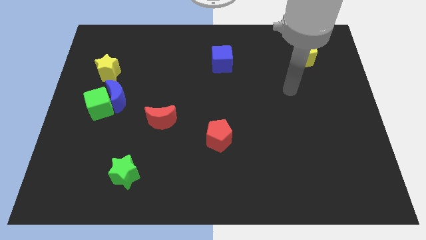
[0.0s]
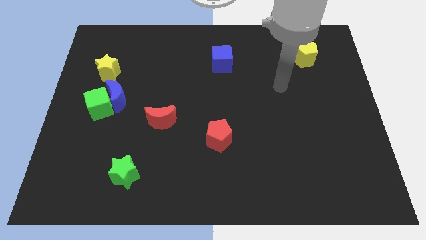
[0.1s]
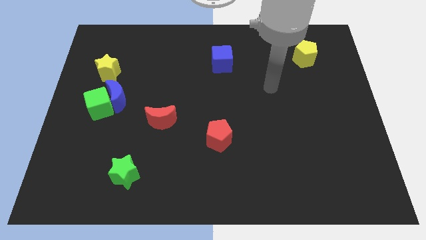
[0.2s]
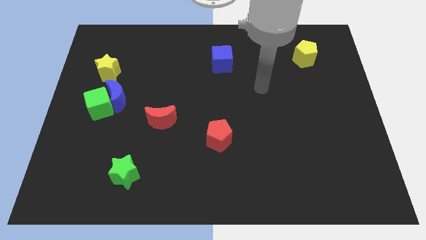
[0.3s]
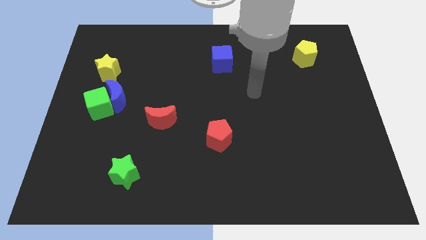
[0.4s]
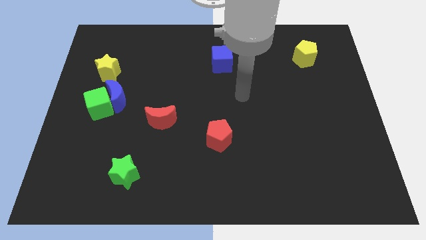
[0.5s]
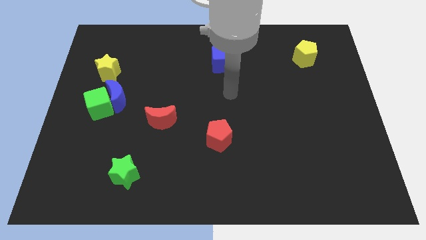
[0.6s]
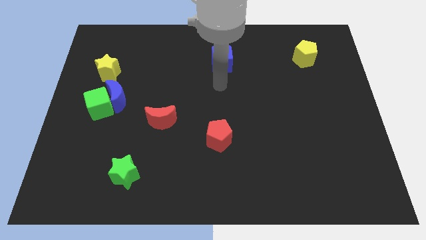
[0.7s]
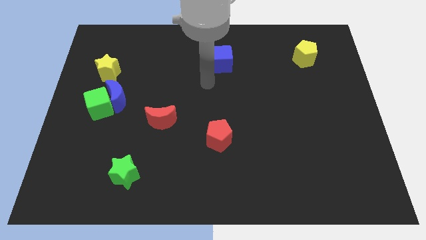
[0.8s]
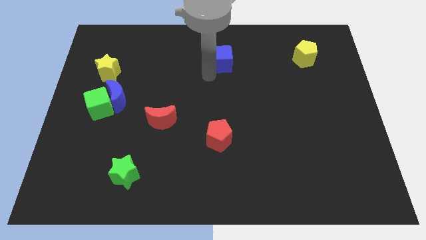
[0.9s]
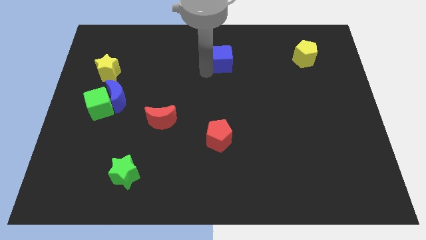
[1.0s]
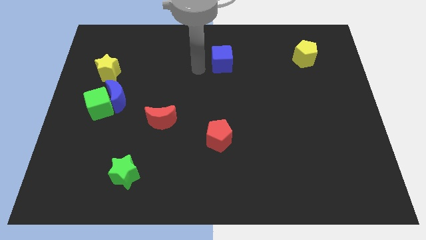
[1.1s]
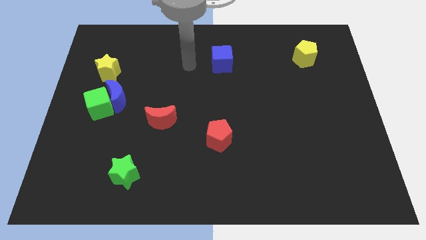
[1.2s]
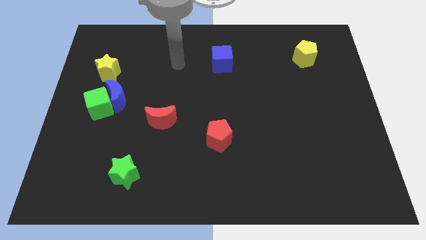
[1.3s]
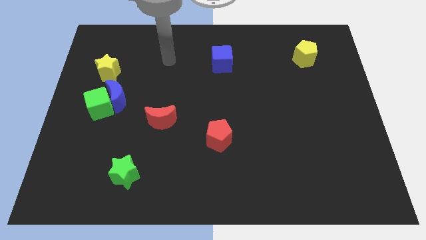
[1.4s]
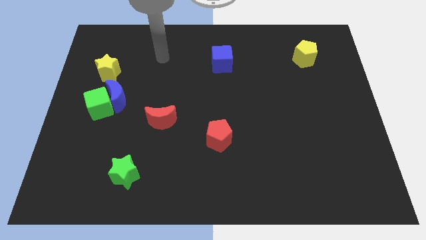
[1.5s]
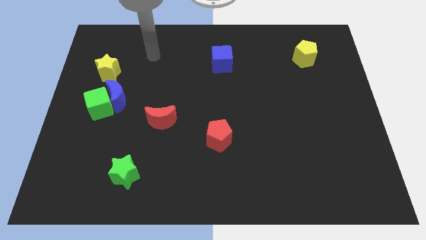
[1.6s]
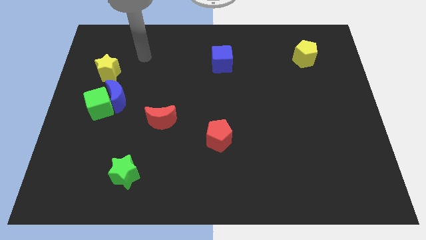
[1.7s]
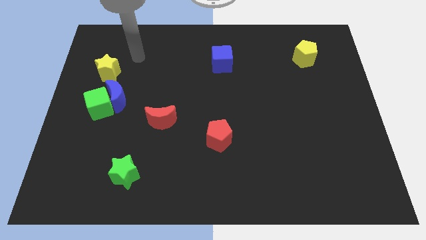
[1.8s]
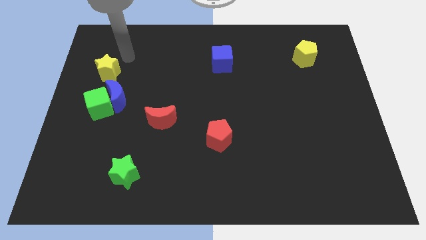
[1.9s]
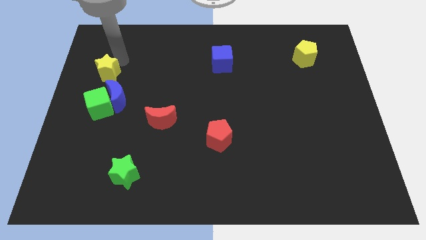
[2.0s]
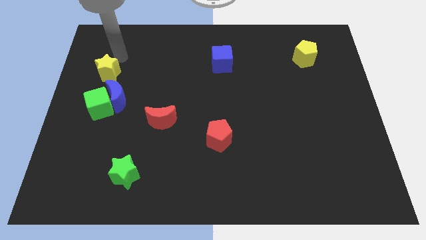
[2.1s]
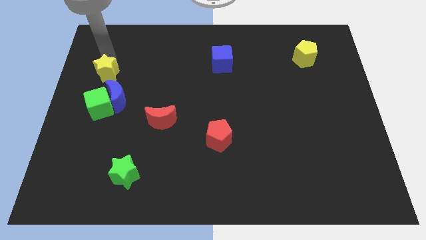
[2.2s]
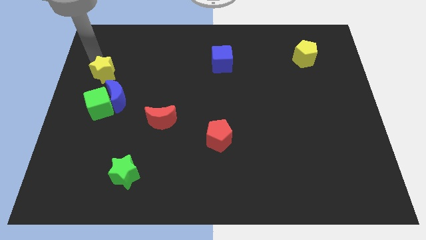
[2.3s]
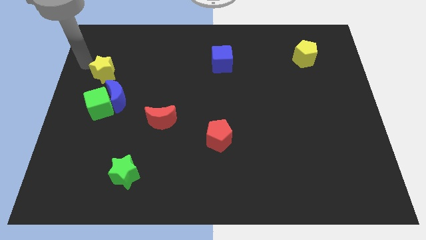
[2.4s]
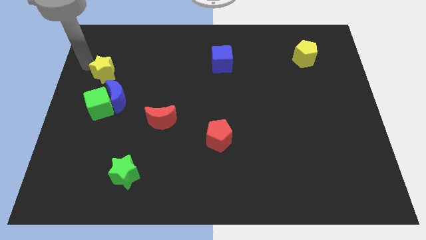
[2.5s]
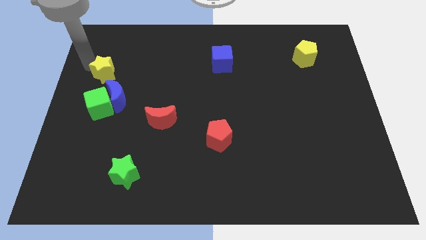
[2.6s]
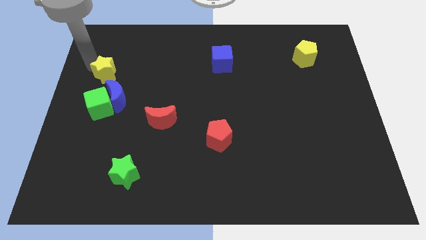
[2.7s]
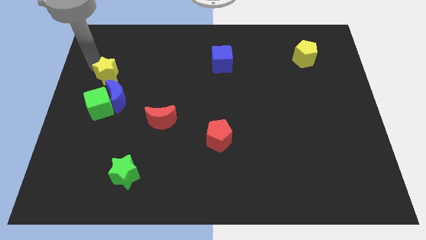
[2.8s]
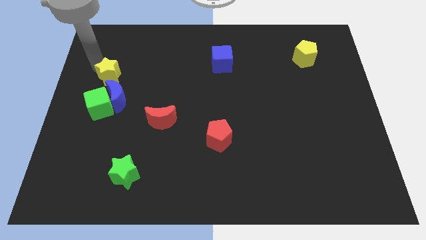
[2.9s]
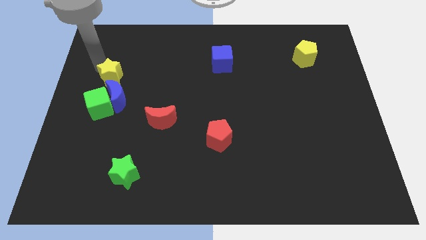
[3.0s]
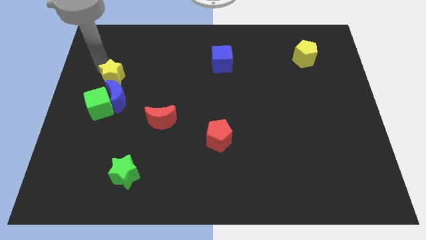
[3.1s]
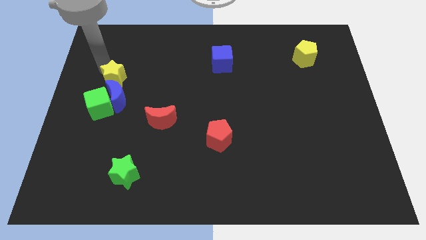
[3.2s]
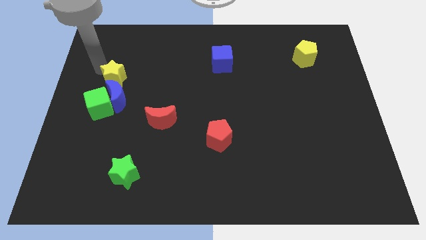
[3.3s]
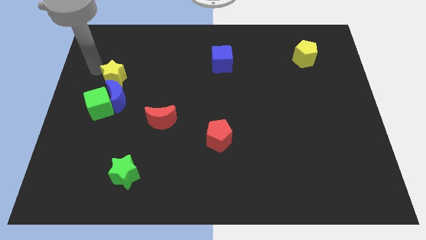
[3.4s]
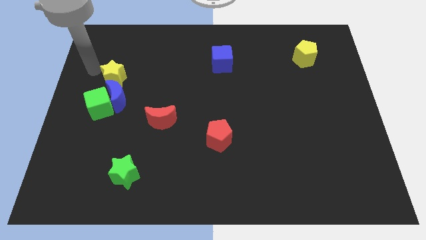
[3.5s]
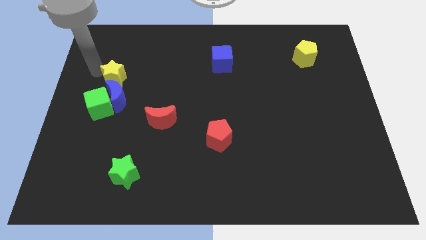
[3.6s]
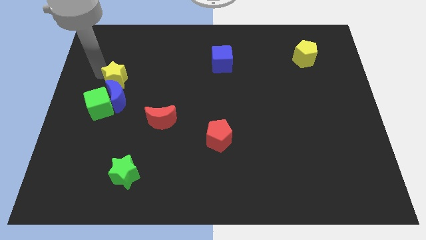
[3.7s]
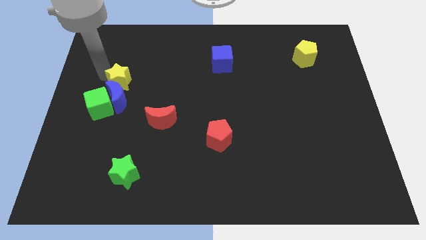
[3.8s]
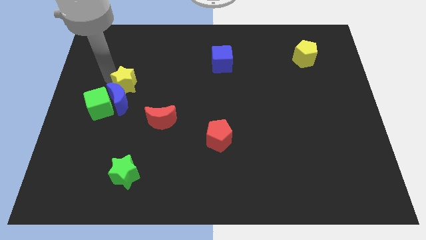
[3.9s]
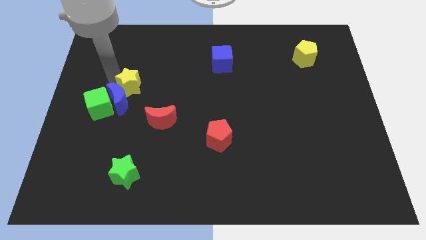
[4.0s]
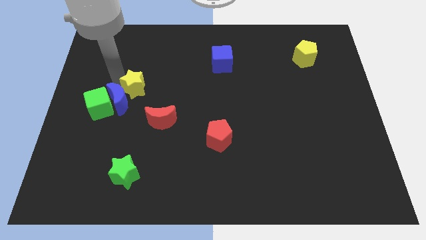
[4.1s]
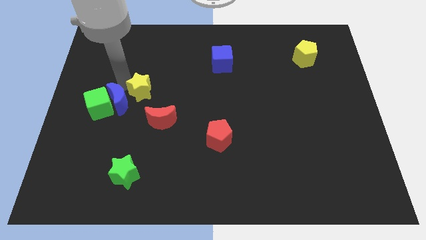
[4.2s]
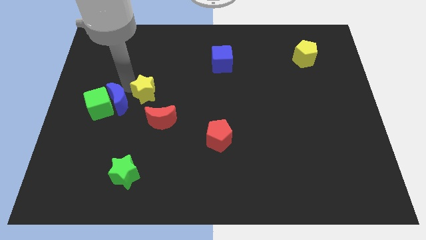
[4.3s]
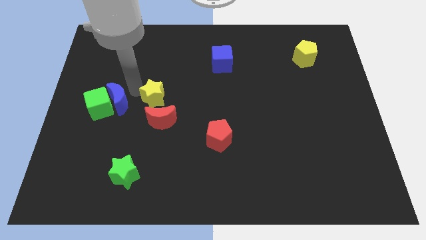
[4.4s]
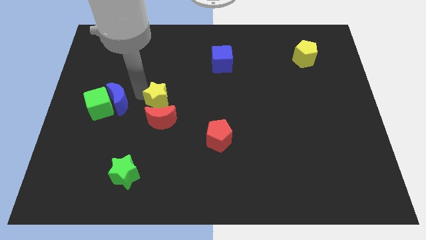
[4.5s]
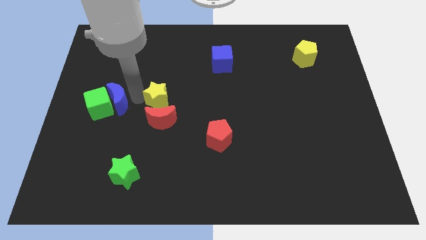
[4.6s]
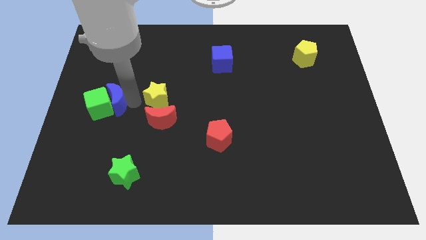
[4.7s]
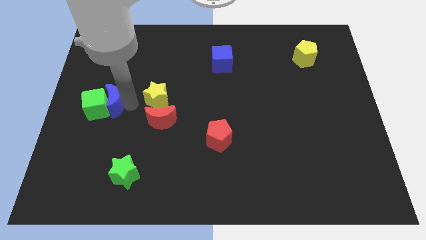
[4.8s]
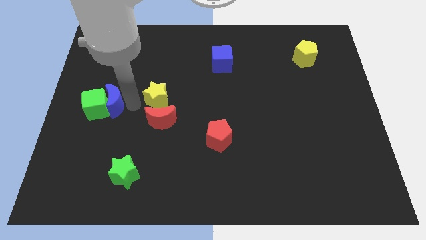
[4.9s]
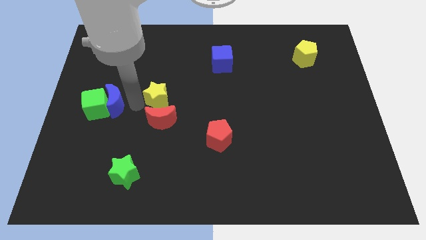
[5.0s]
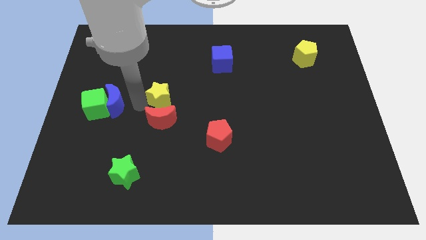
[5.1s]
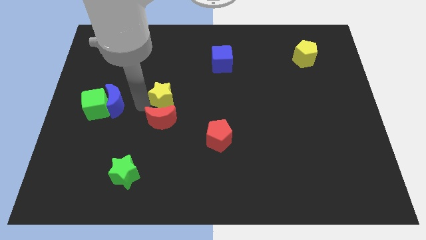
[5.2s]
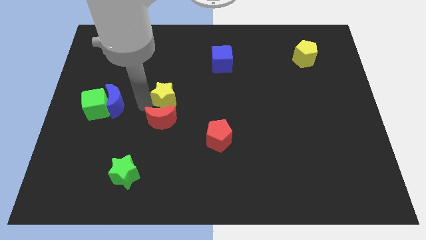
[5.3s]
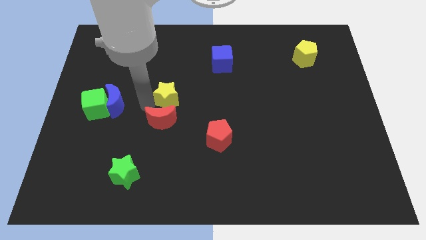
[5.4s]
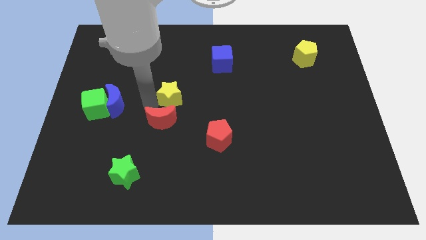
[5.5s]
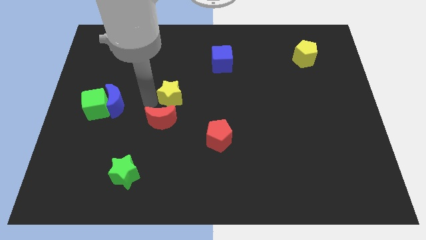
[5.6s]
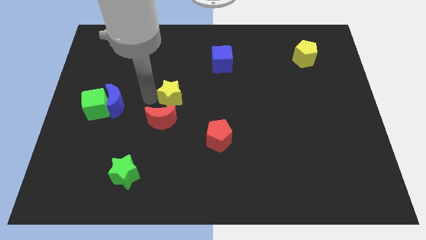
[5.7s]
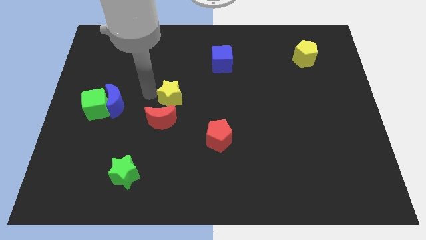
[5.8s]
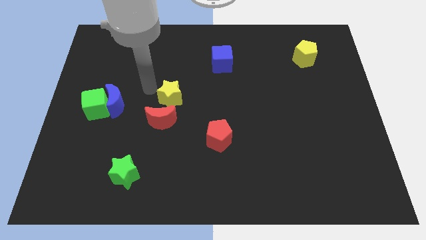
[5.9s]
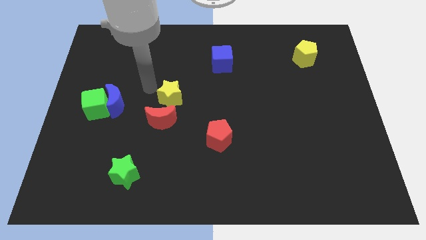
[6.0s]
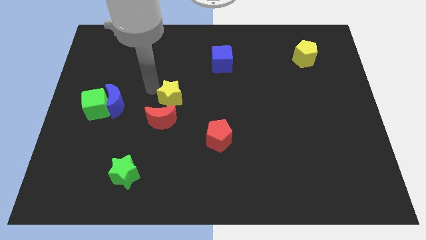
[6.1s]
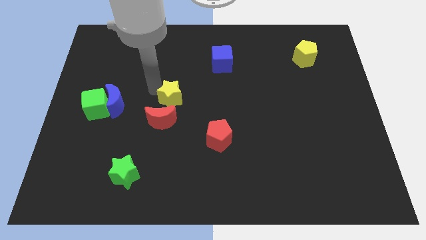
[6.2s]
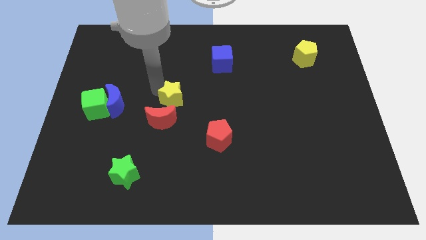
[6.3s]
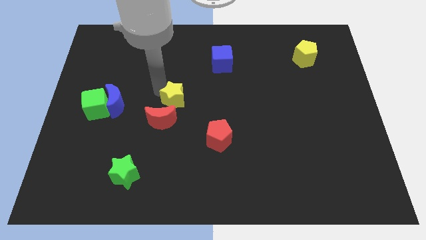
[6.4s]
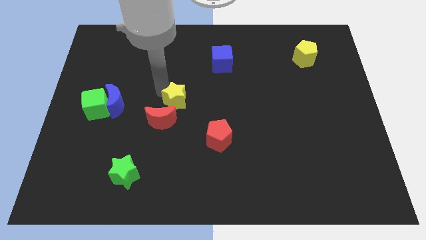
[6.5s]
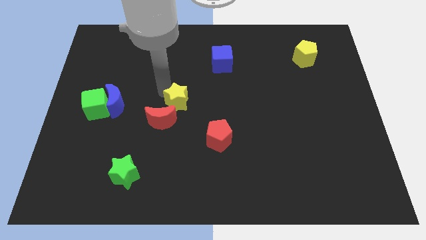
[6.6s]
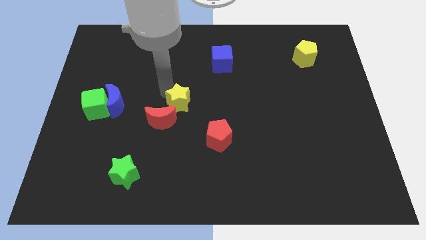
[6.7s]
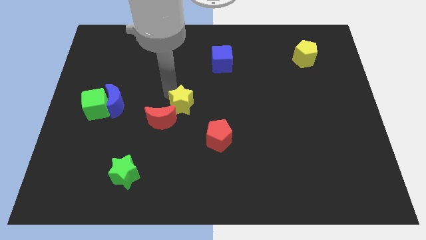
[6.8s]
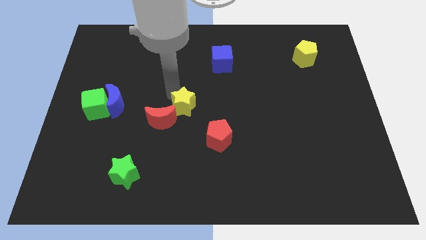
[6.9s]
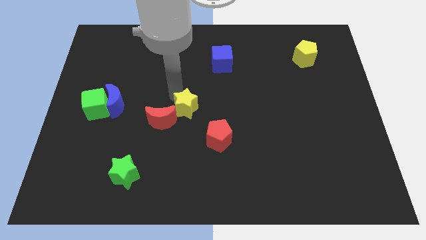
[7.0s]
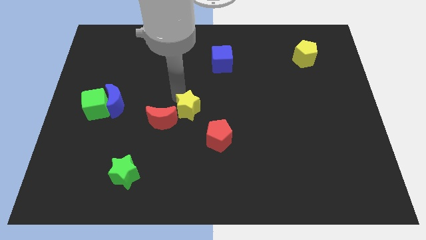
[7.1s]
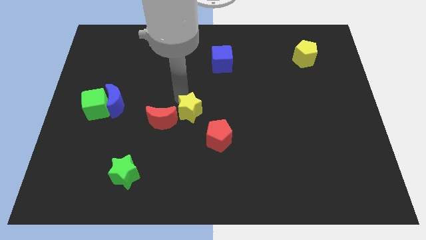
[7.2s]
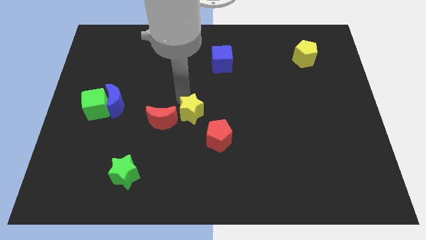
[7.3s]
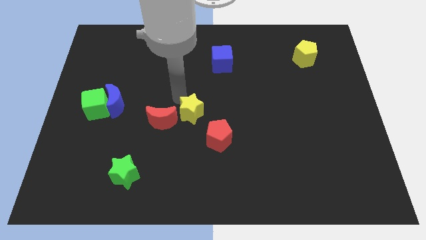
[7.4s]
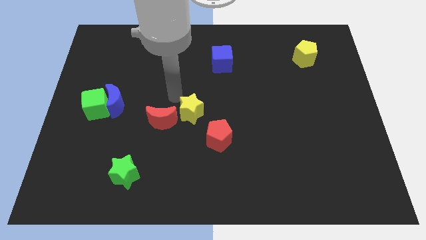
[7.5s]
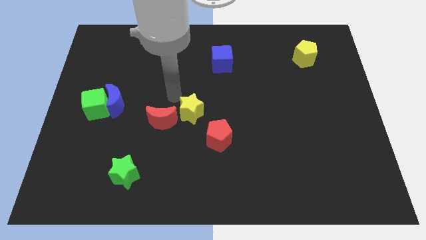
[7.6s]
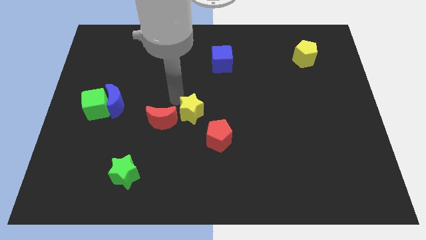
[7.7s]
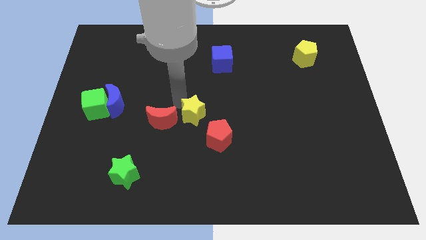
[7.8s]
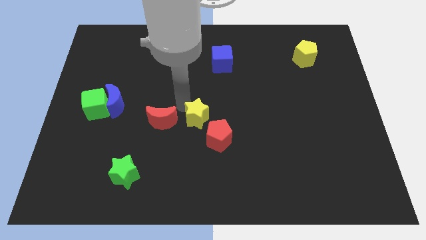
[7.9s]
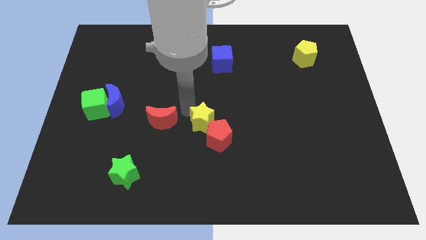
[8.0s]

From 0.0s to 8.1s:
slide the yellow star towards the red pentagon
